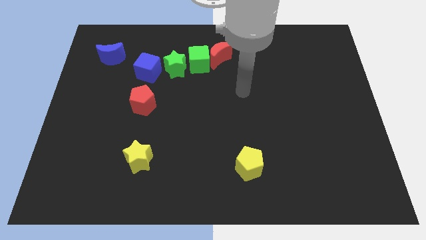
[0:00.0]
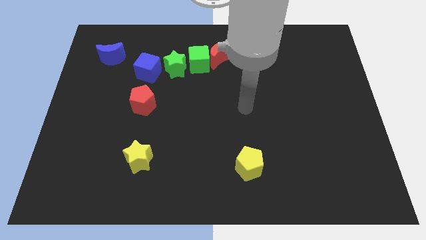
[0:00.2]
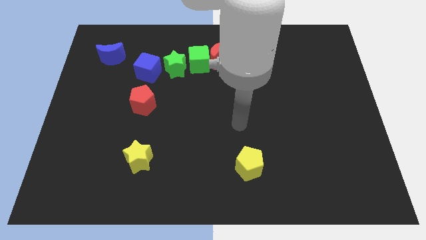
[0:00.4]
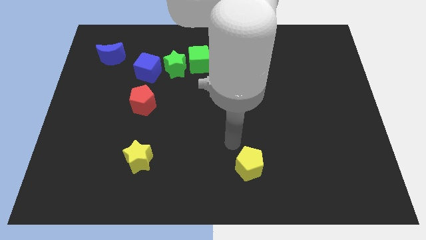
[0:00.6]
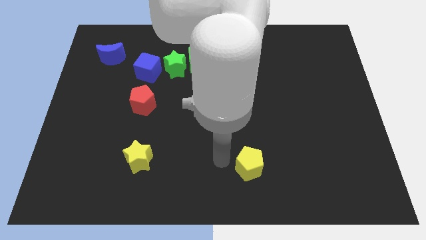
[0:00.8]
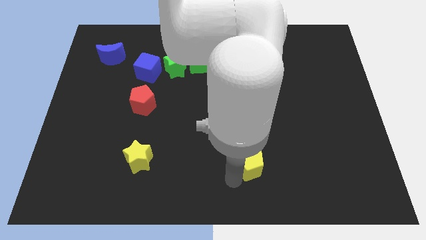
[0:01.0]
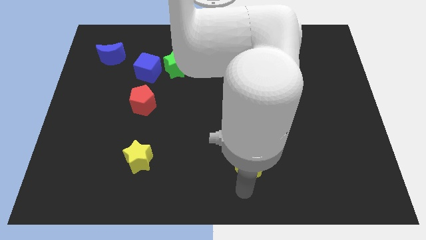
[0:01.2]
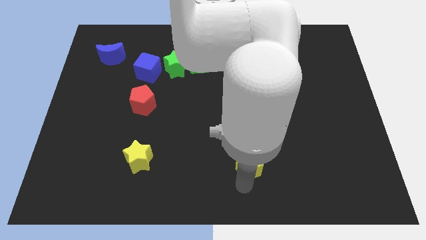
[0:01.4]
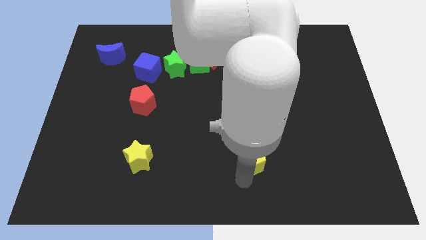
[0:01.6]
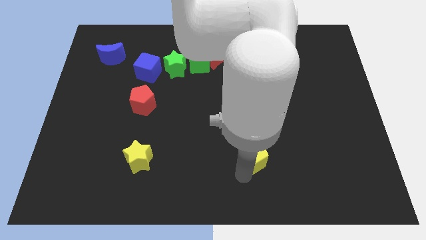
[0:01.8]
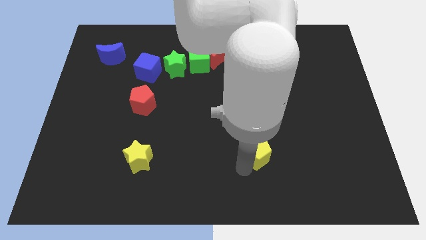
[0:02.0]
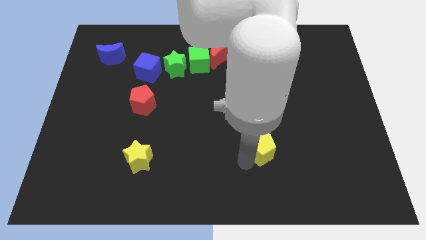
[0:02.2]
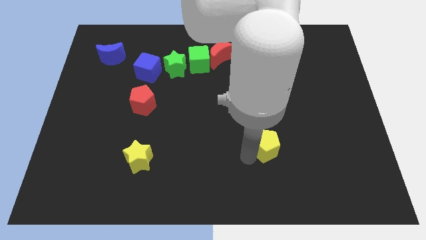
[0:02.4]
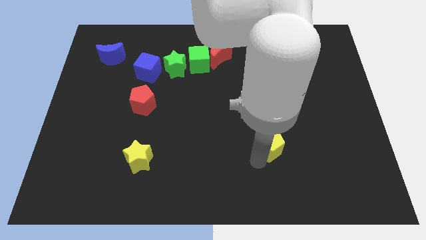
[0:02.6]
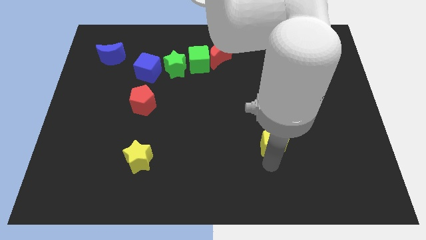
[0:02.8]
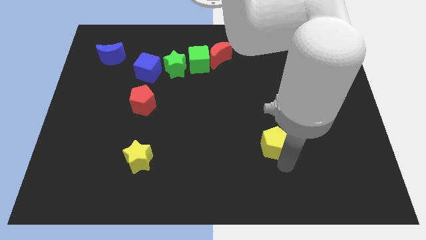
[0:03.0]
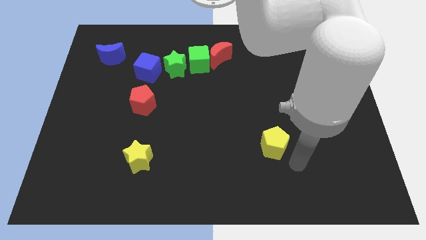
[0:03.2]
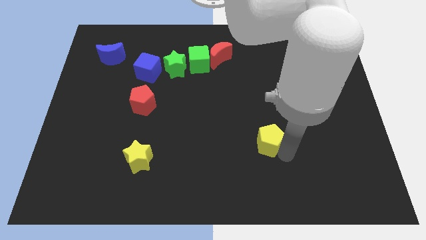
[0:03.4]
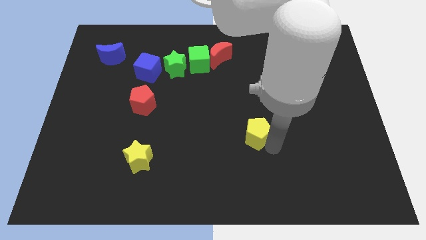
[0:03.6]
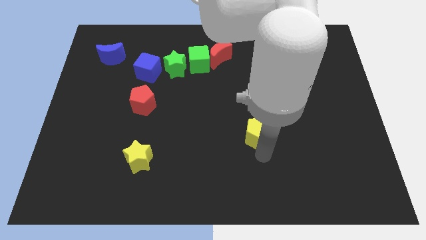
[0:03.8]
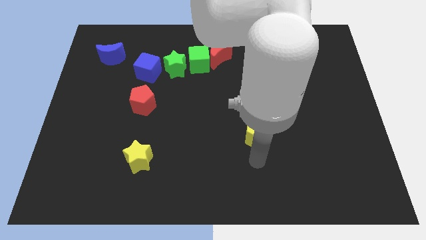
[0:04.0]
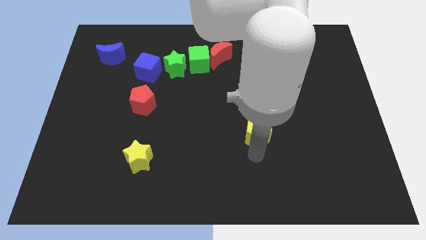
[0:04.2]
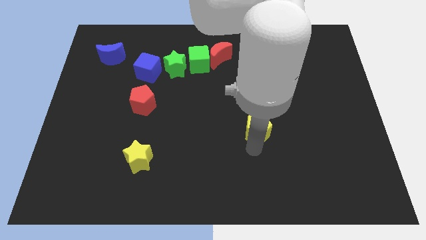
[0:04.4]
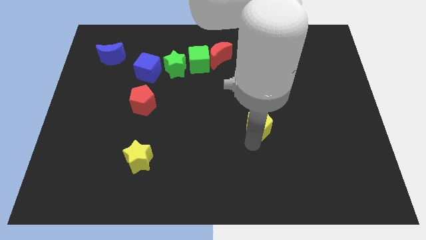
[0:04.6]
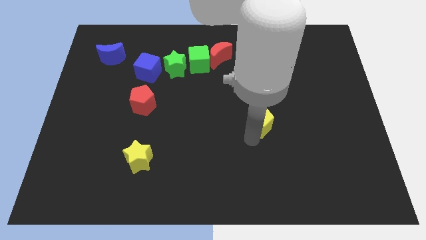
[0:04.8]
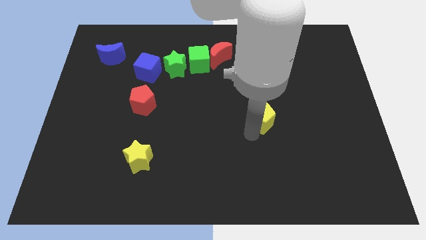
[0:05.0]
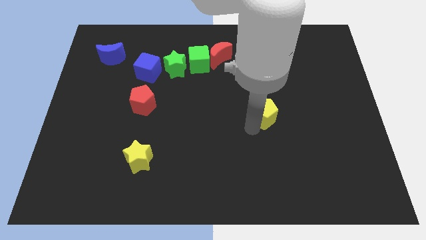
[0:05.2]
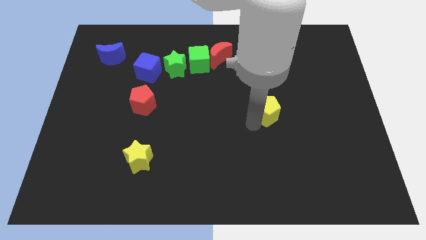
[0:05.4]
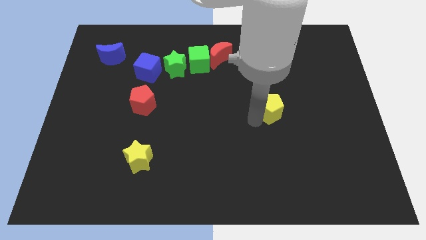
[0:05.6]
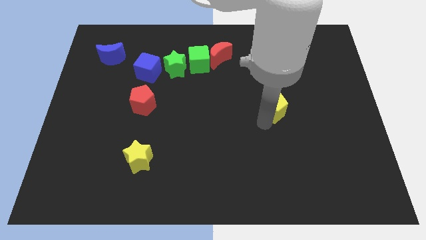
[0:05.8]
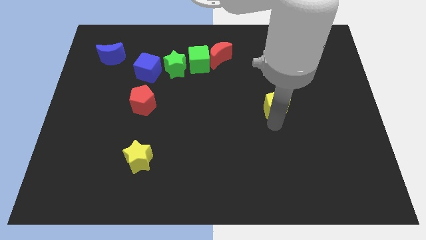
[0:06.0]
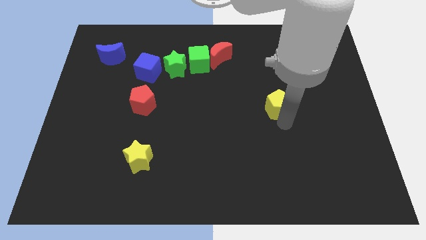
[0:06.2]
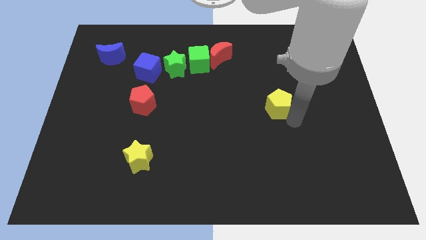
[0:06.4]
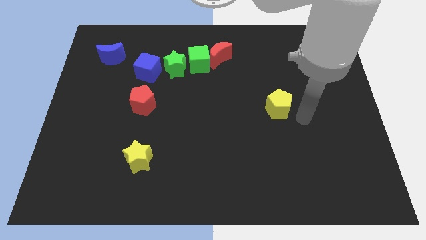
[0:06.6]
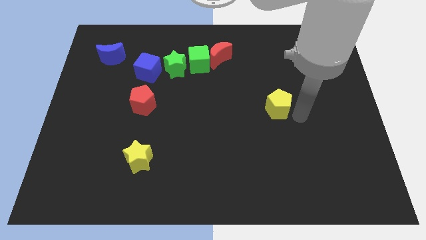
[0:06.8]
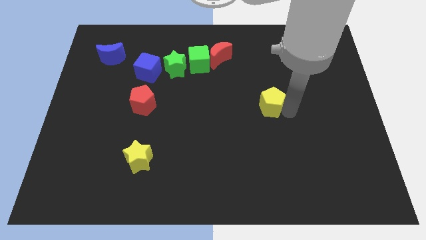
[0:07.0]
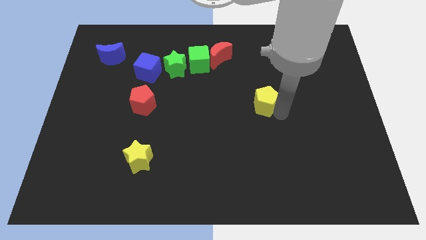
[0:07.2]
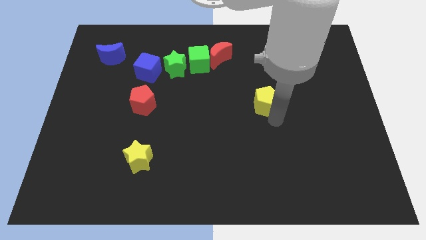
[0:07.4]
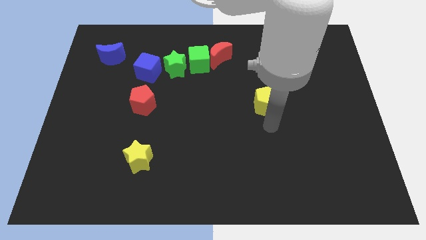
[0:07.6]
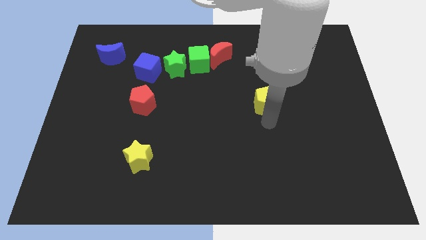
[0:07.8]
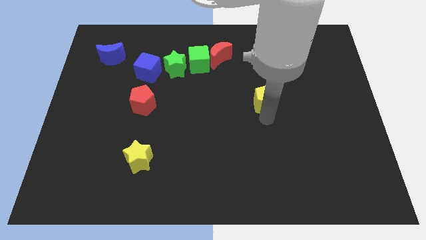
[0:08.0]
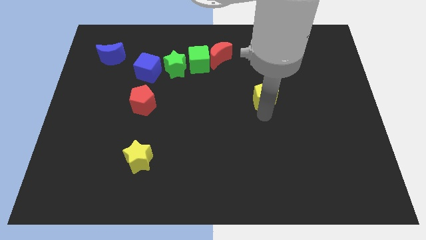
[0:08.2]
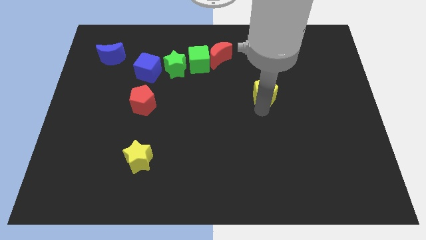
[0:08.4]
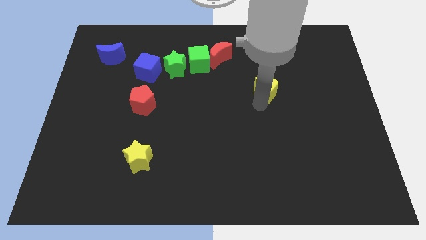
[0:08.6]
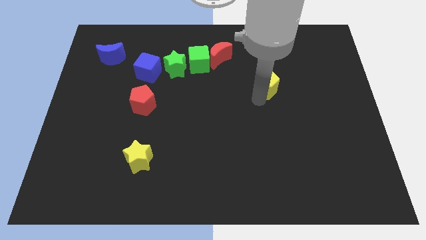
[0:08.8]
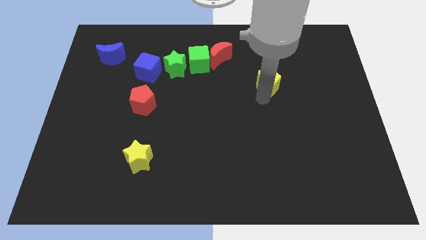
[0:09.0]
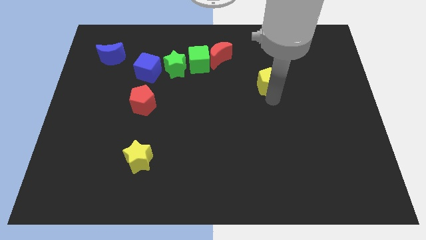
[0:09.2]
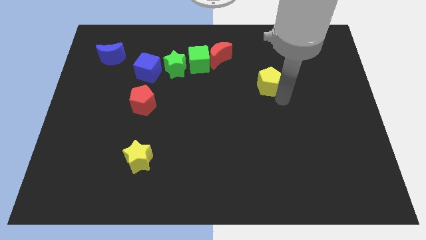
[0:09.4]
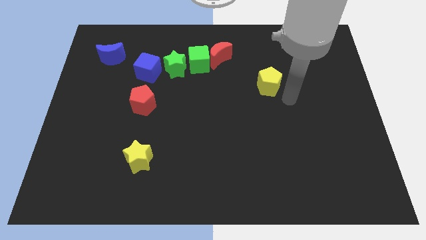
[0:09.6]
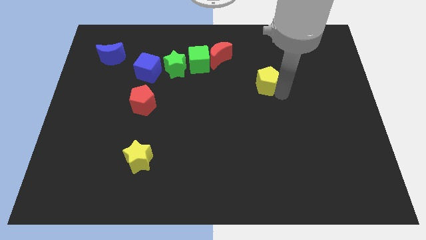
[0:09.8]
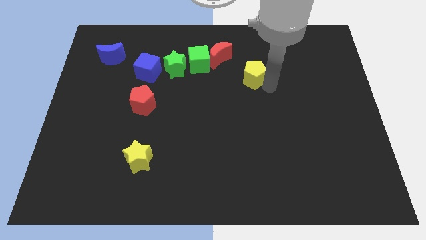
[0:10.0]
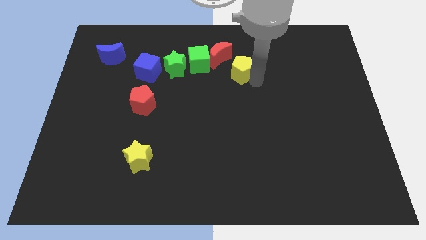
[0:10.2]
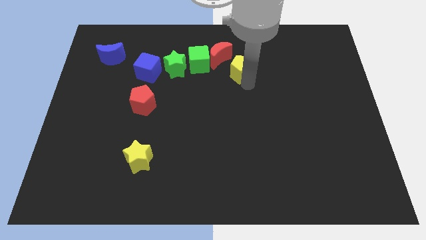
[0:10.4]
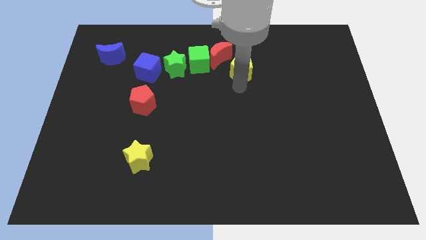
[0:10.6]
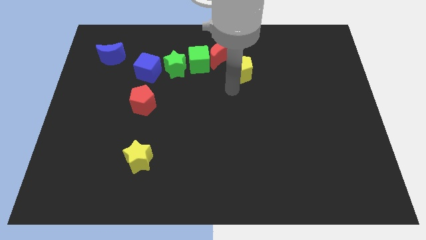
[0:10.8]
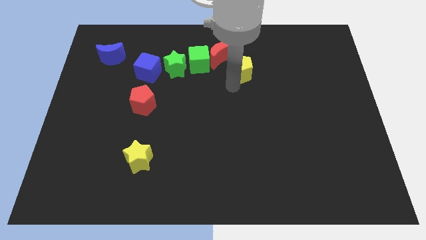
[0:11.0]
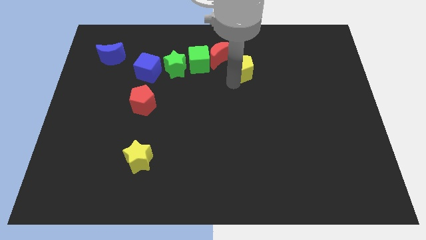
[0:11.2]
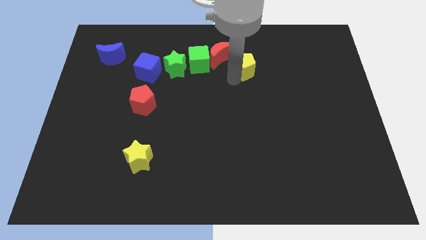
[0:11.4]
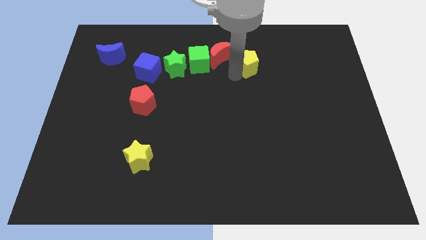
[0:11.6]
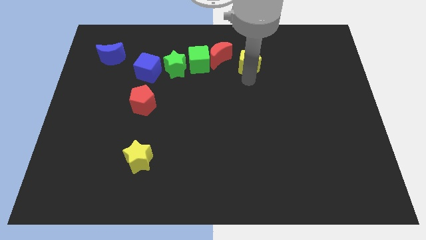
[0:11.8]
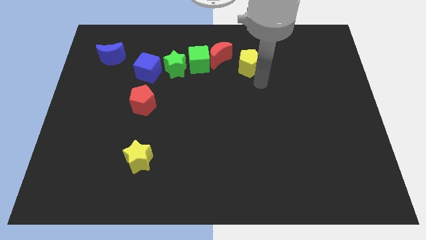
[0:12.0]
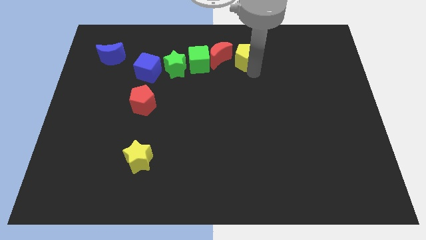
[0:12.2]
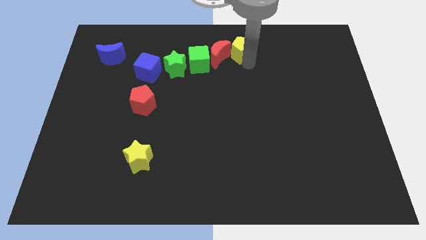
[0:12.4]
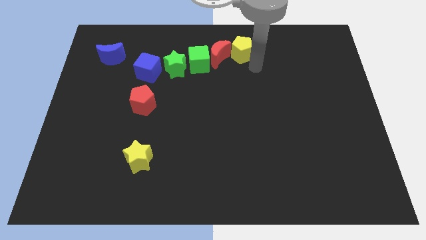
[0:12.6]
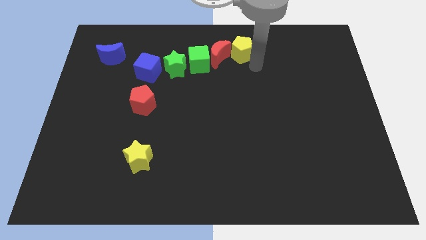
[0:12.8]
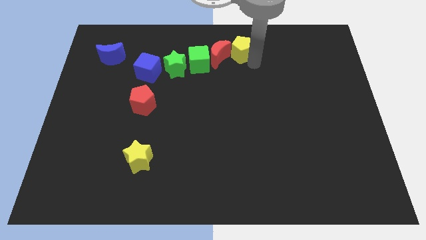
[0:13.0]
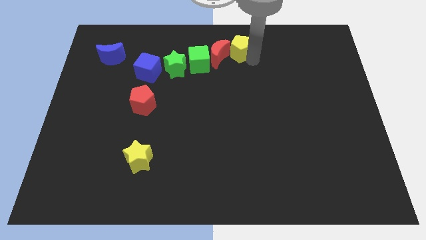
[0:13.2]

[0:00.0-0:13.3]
move the yellow pentagon to the towards your base
